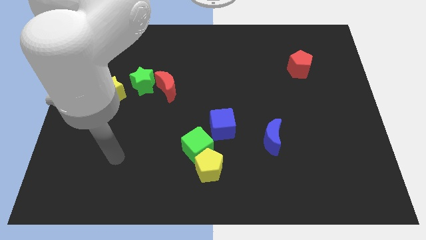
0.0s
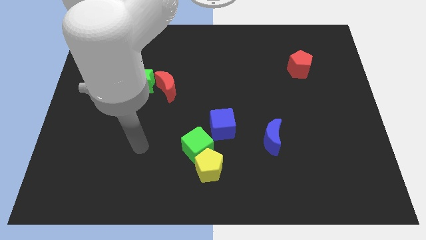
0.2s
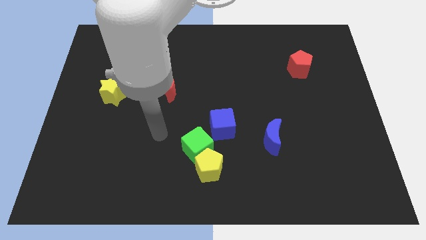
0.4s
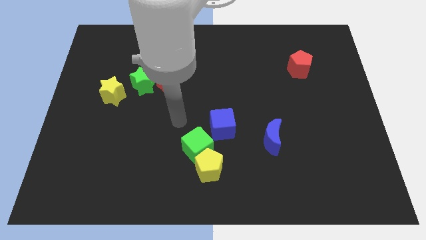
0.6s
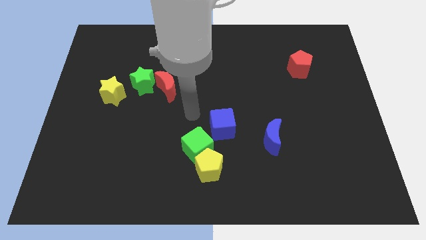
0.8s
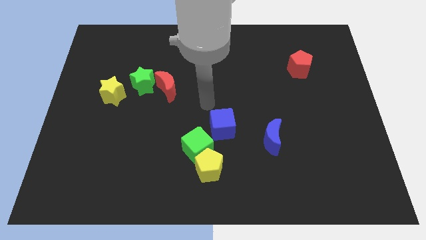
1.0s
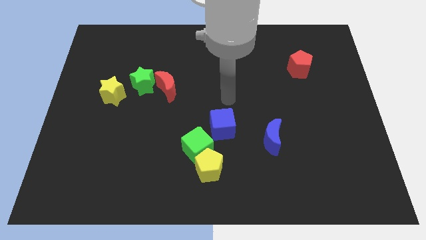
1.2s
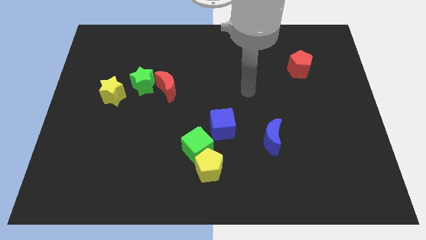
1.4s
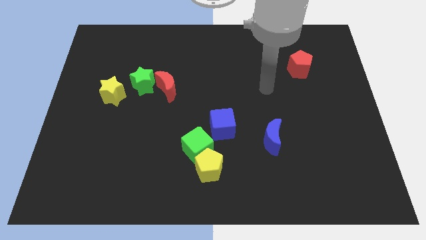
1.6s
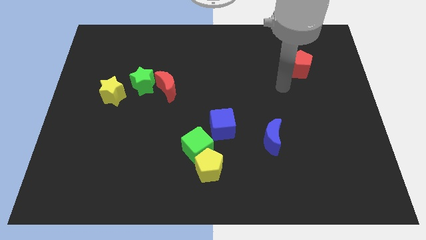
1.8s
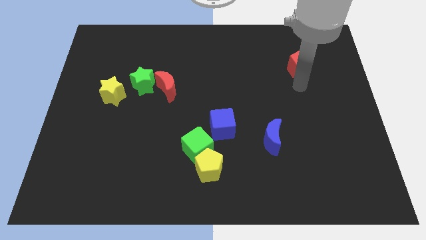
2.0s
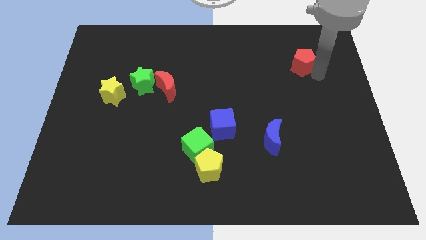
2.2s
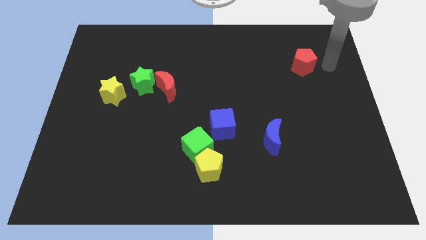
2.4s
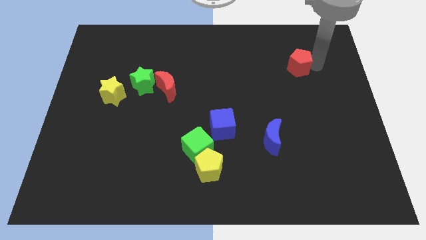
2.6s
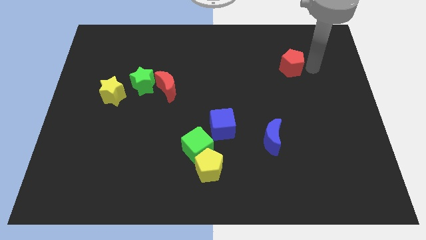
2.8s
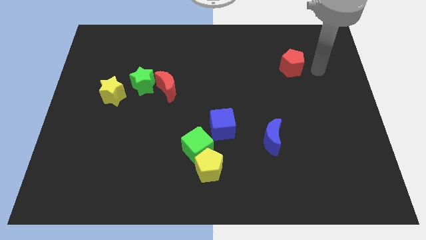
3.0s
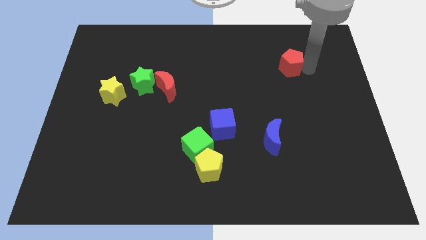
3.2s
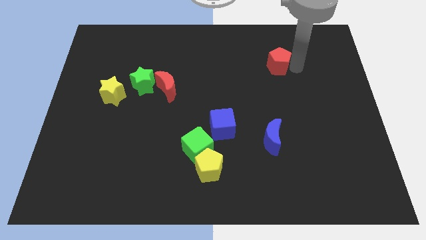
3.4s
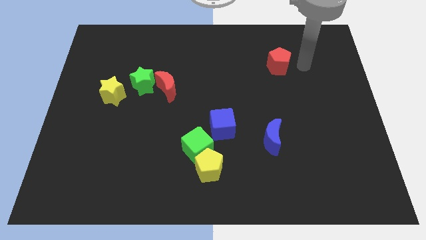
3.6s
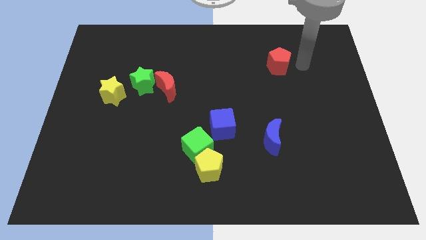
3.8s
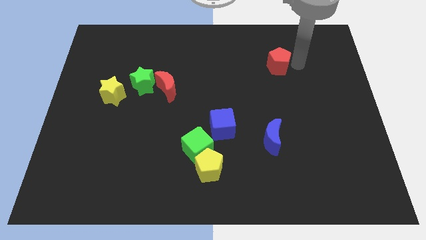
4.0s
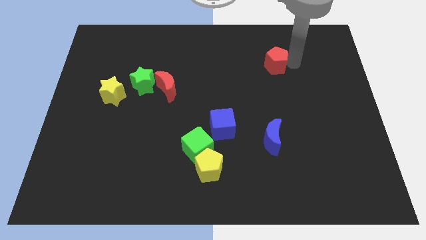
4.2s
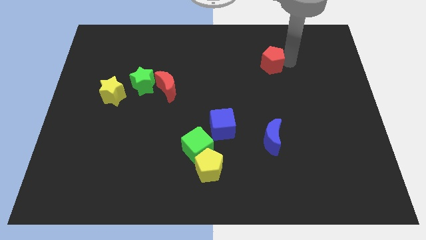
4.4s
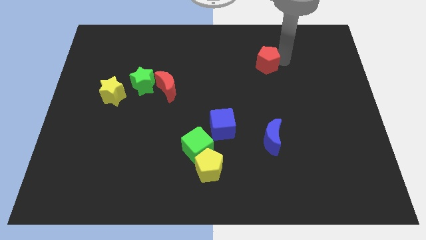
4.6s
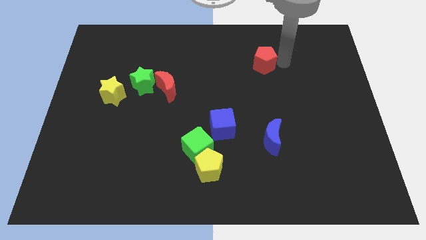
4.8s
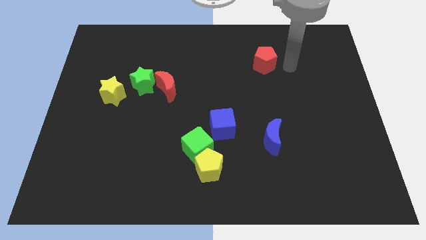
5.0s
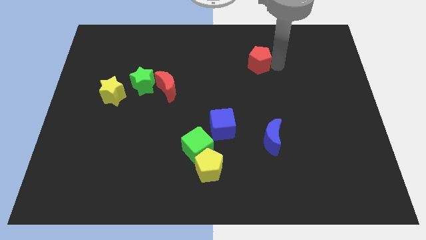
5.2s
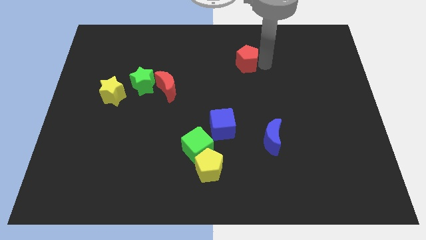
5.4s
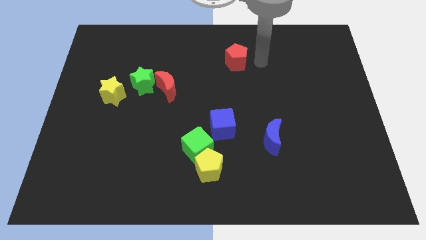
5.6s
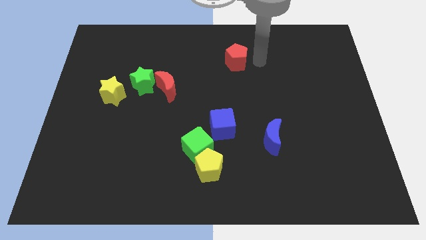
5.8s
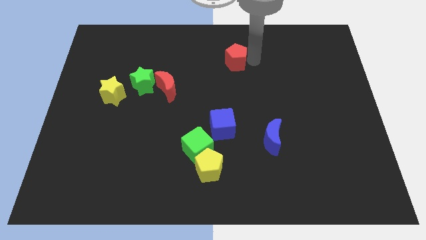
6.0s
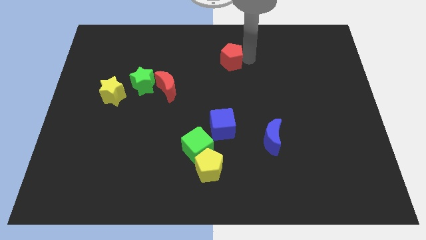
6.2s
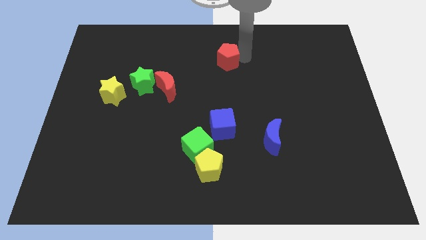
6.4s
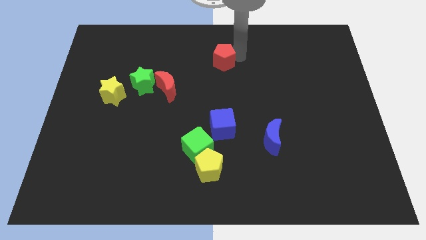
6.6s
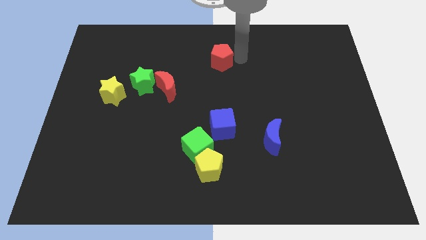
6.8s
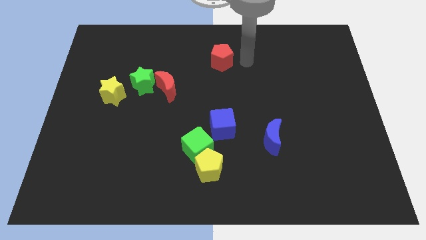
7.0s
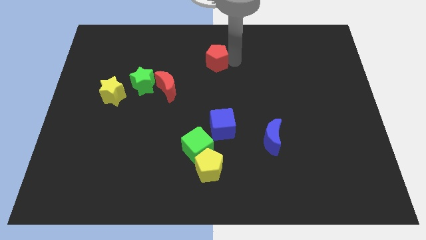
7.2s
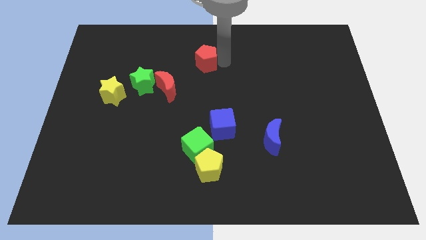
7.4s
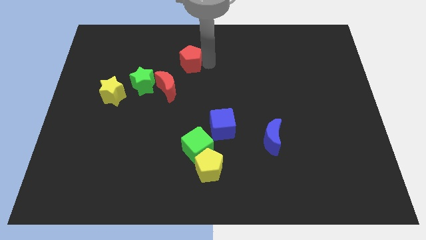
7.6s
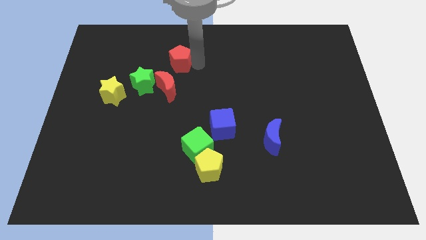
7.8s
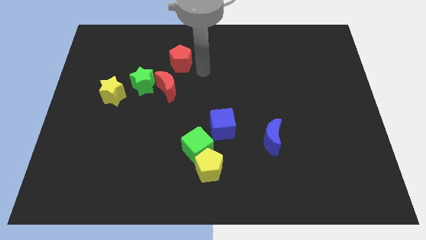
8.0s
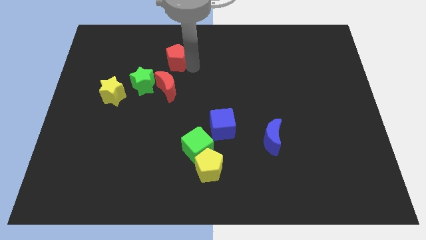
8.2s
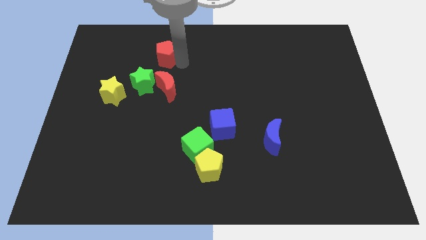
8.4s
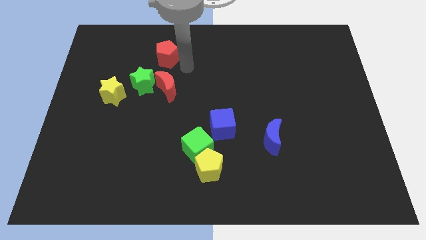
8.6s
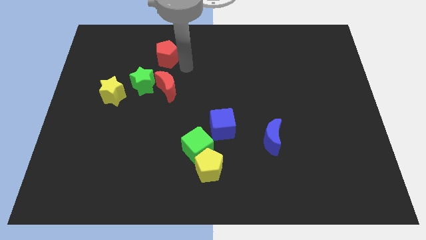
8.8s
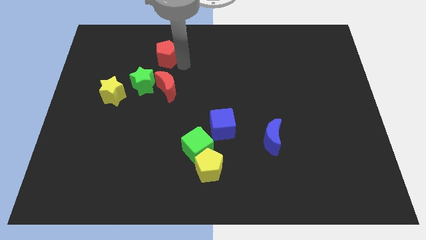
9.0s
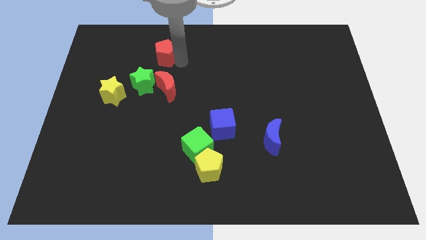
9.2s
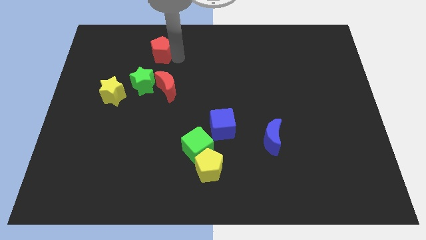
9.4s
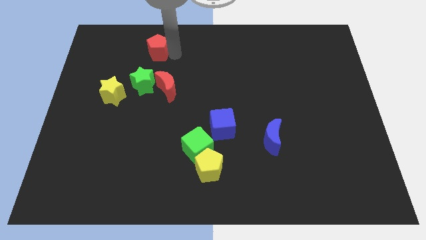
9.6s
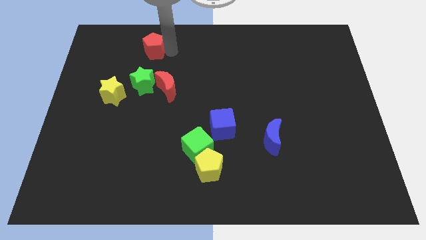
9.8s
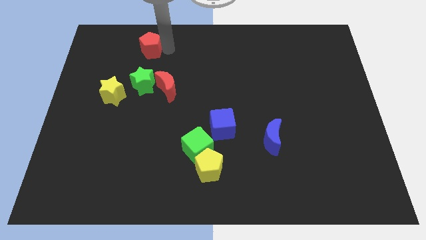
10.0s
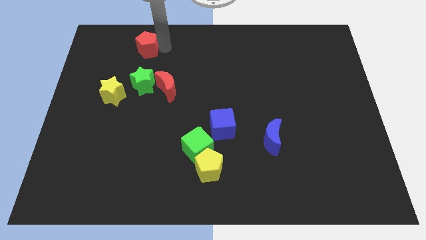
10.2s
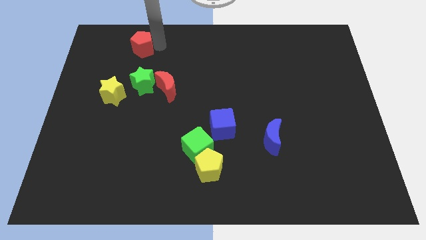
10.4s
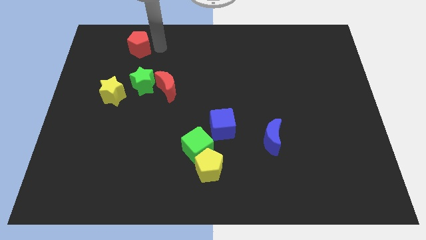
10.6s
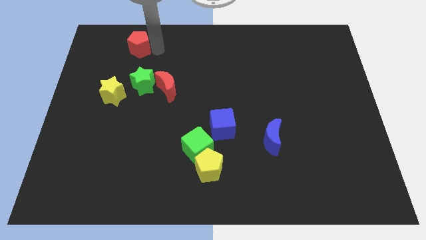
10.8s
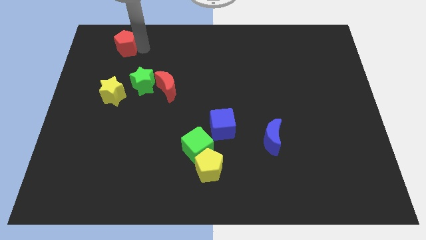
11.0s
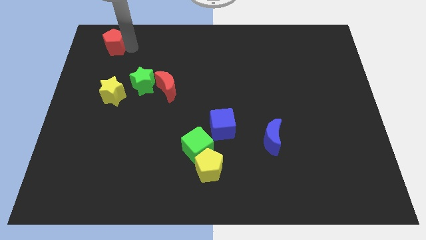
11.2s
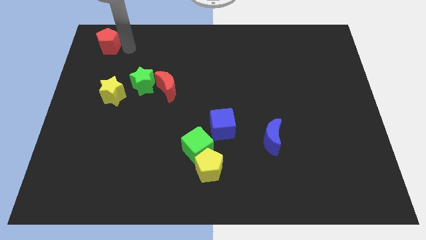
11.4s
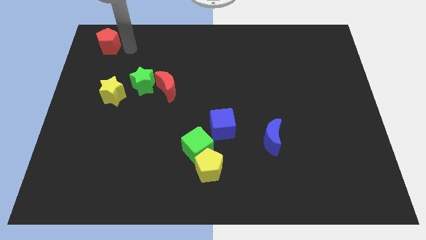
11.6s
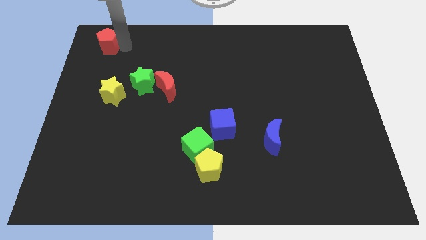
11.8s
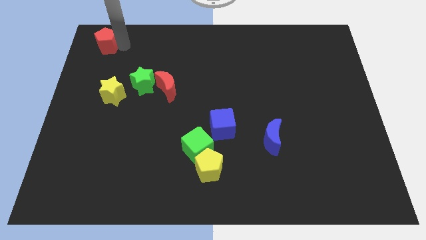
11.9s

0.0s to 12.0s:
put the red pentagon to the top left corner
